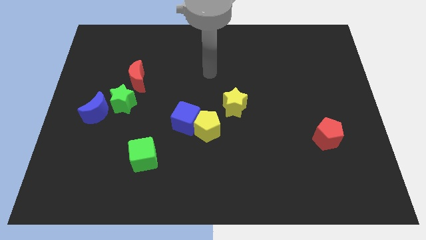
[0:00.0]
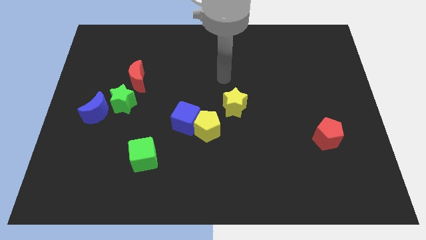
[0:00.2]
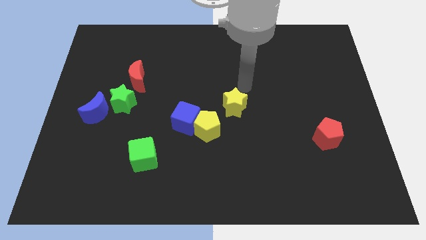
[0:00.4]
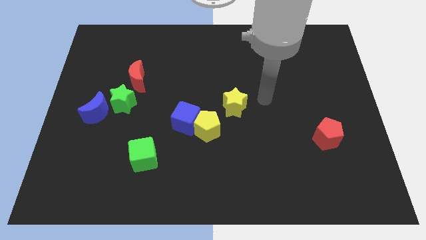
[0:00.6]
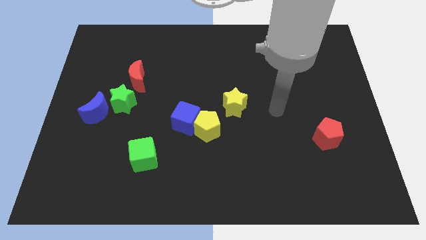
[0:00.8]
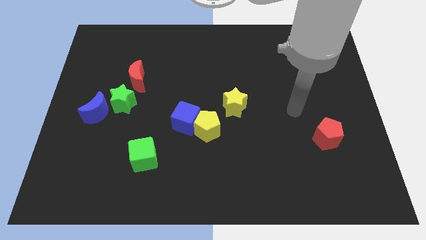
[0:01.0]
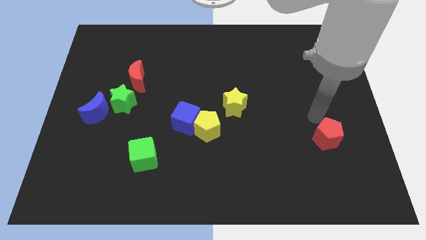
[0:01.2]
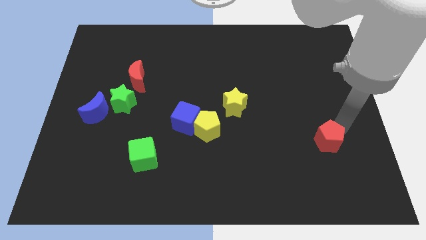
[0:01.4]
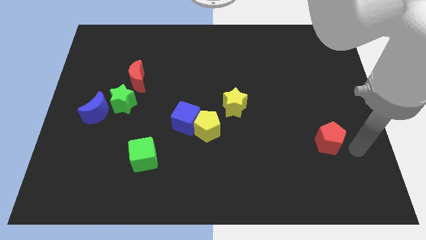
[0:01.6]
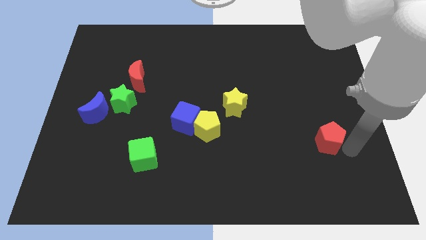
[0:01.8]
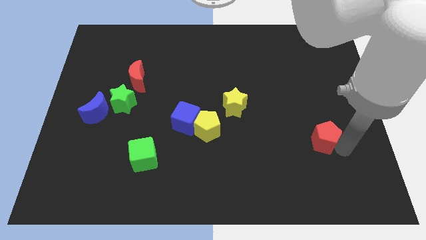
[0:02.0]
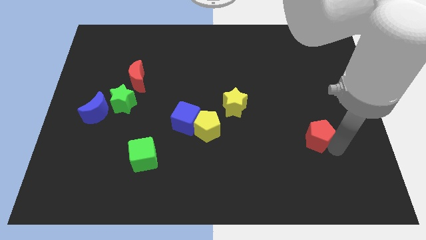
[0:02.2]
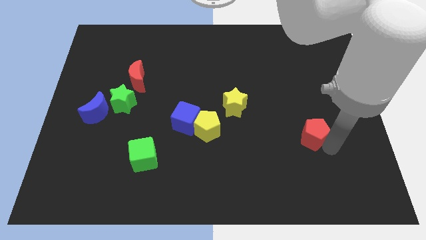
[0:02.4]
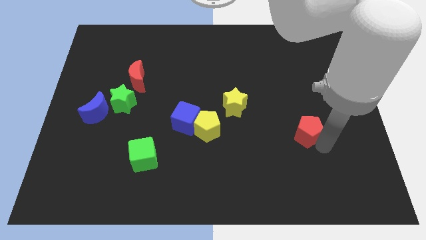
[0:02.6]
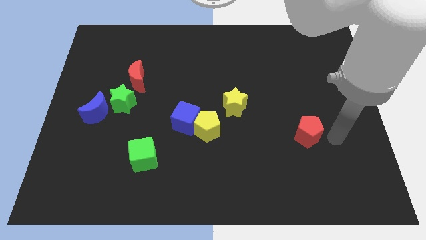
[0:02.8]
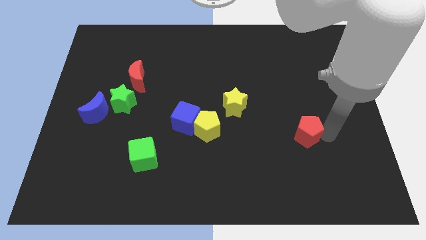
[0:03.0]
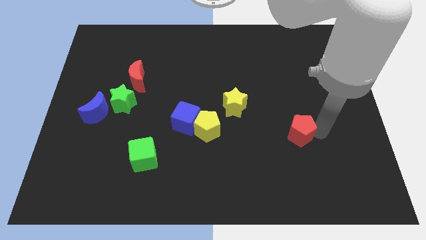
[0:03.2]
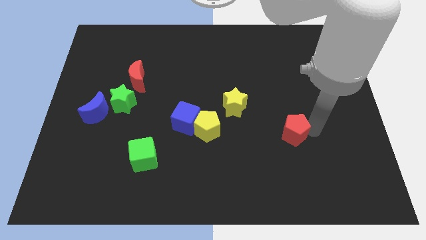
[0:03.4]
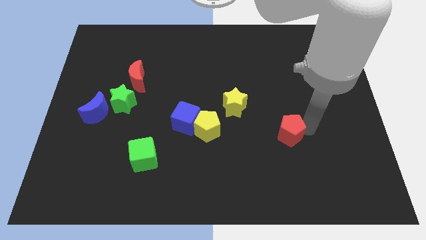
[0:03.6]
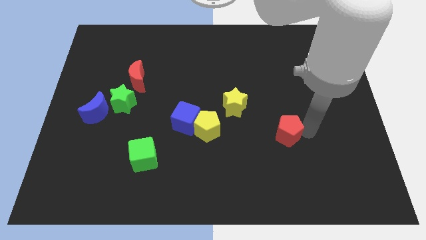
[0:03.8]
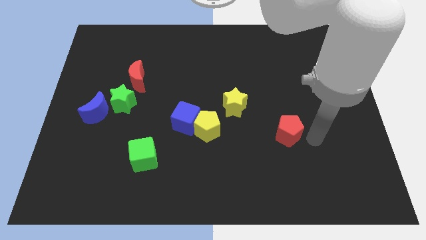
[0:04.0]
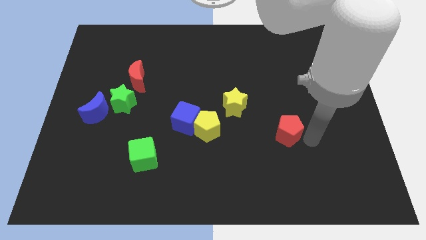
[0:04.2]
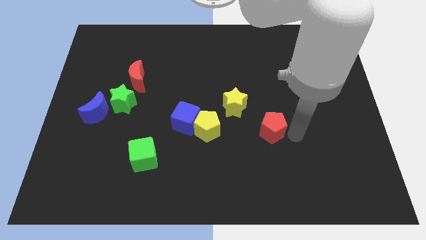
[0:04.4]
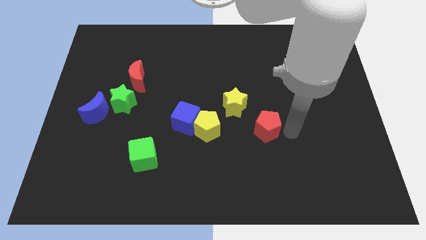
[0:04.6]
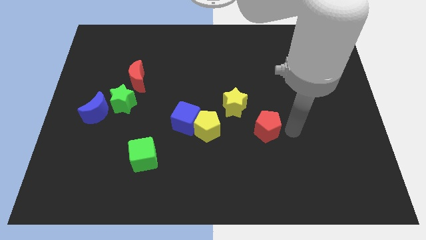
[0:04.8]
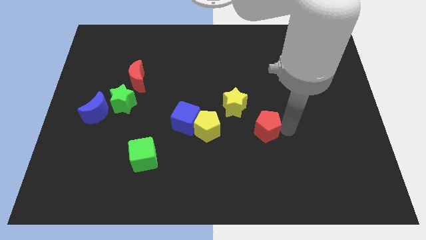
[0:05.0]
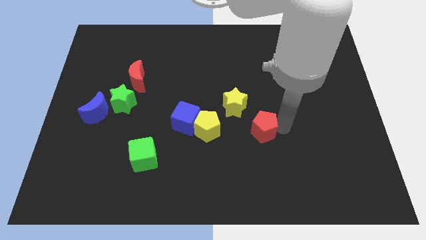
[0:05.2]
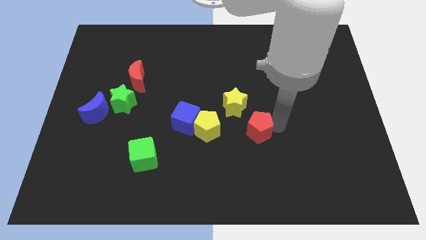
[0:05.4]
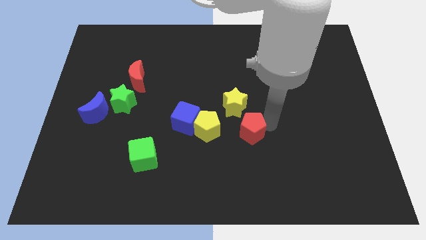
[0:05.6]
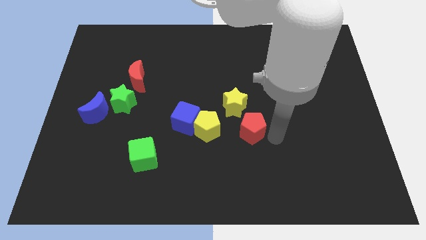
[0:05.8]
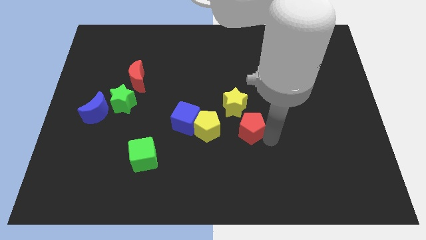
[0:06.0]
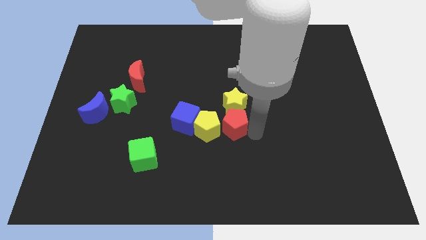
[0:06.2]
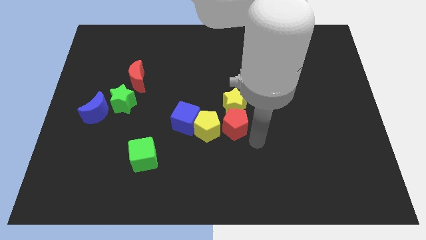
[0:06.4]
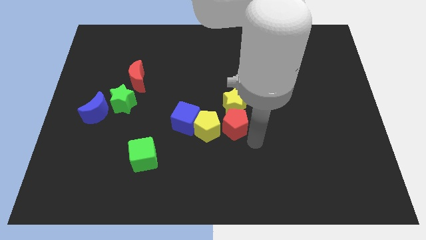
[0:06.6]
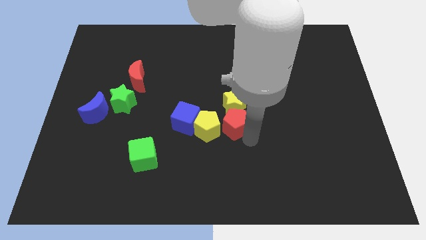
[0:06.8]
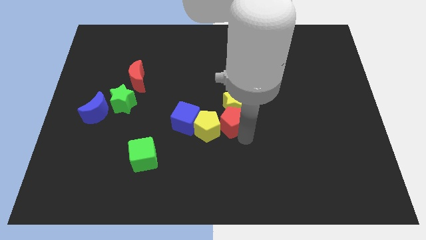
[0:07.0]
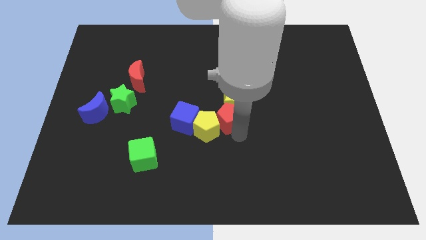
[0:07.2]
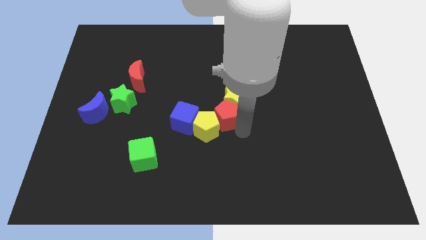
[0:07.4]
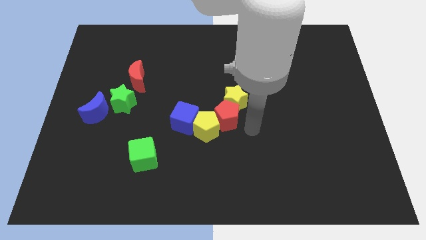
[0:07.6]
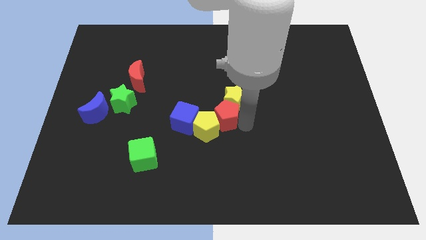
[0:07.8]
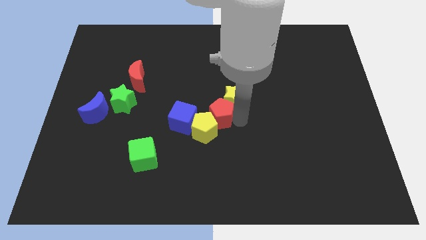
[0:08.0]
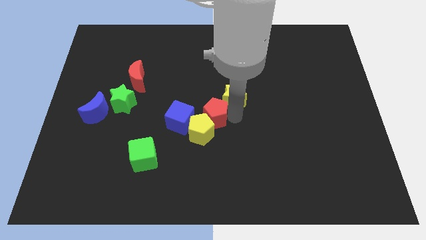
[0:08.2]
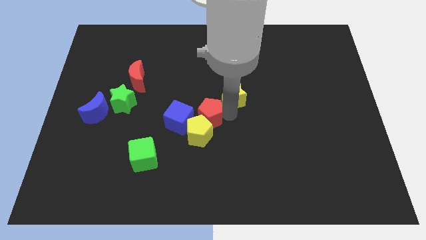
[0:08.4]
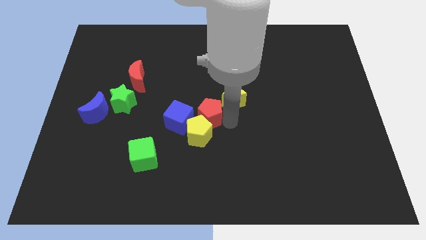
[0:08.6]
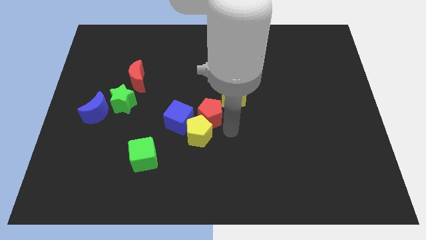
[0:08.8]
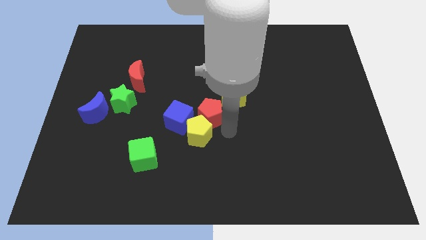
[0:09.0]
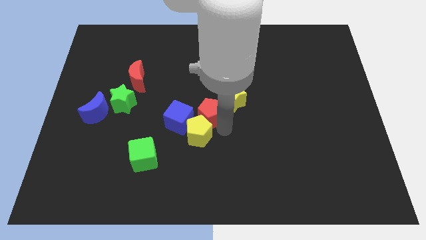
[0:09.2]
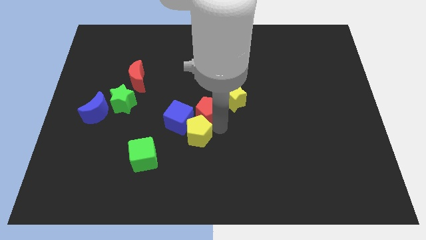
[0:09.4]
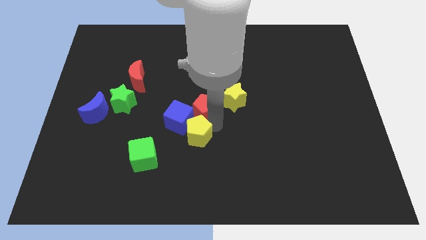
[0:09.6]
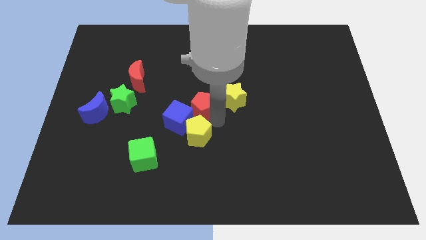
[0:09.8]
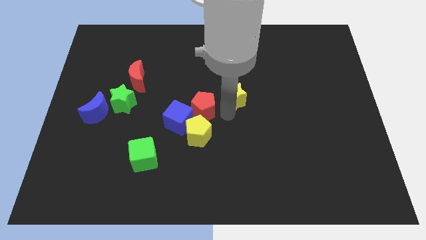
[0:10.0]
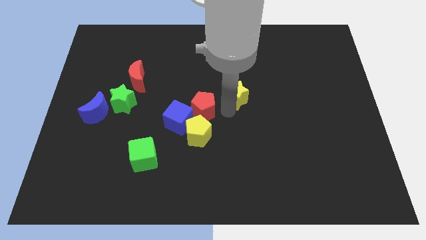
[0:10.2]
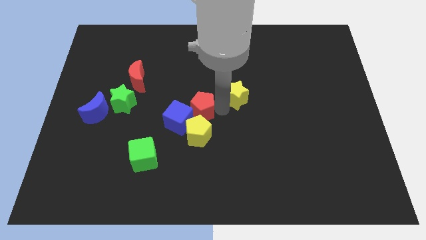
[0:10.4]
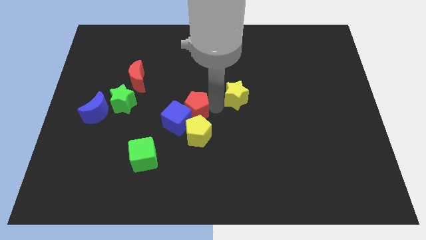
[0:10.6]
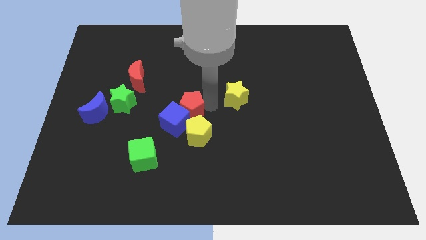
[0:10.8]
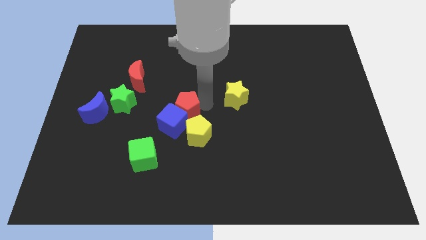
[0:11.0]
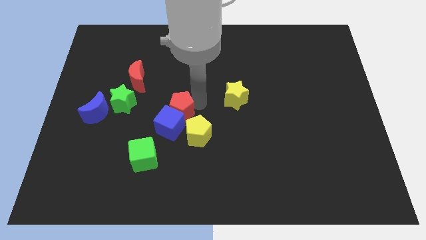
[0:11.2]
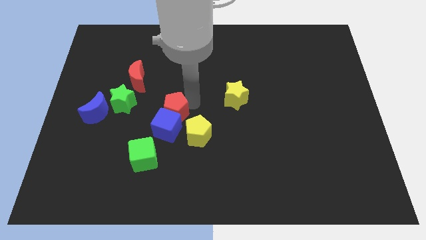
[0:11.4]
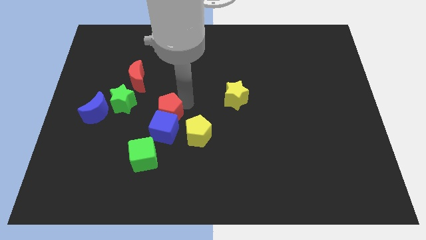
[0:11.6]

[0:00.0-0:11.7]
move the red pentagon to the top of the green cube

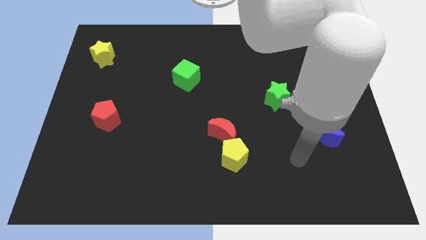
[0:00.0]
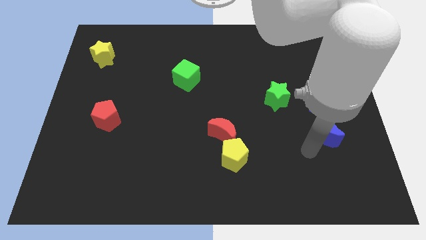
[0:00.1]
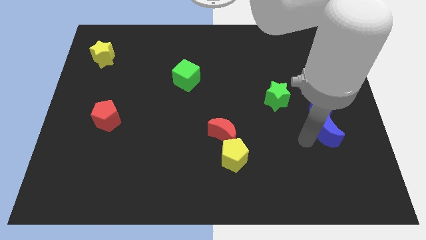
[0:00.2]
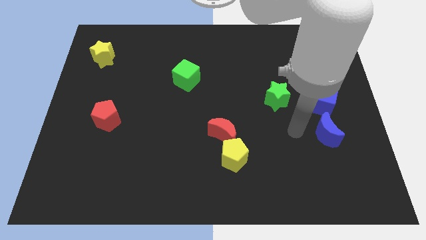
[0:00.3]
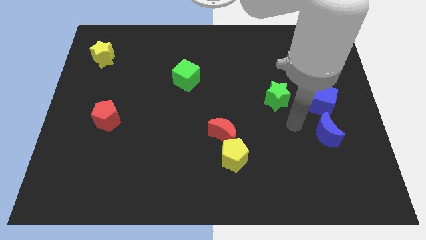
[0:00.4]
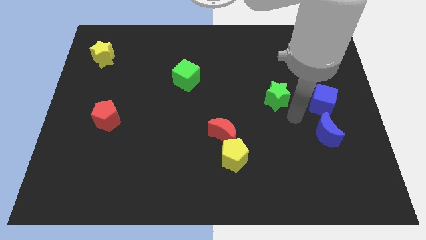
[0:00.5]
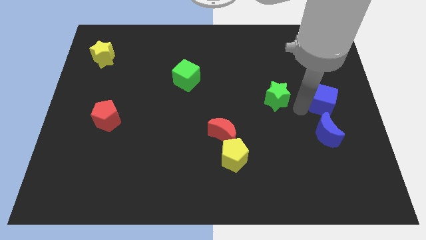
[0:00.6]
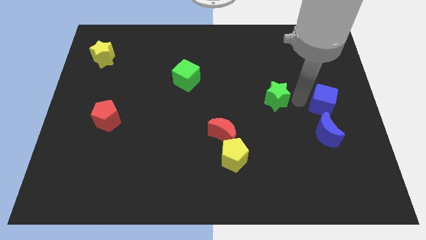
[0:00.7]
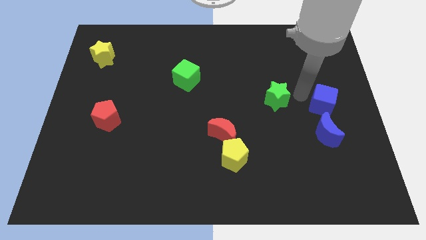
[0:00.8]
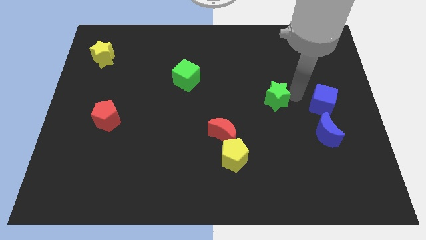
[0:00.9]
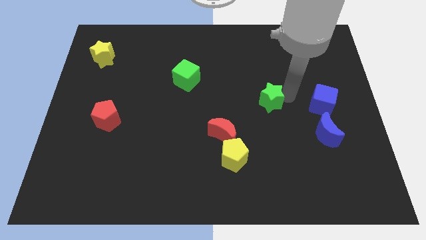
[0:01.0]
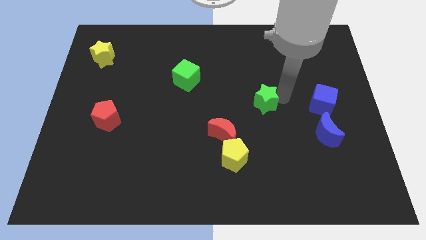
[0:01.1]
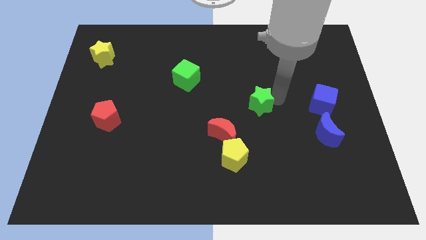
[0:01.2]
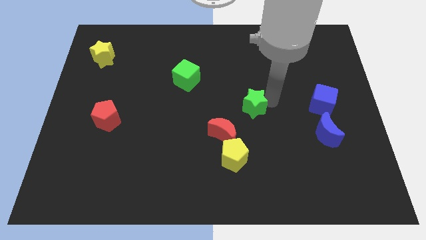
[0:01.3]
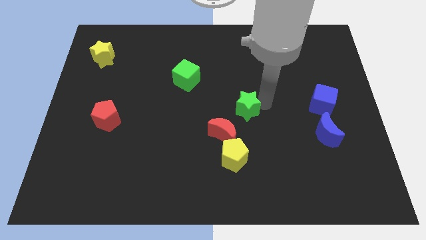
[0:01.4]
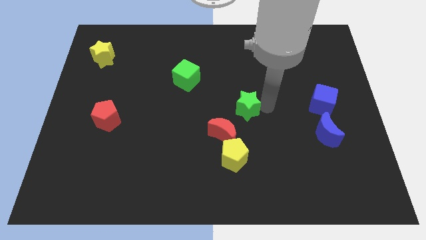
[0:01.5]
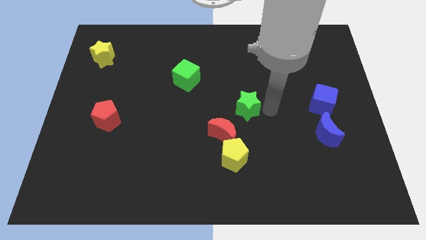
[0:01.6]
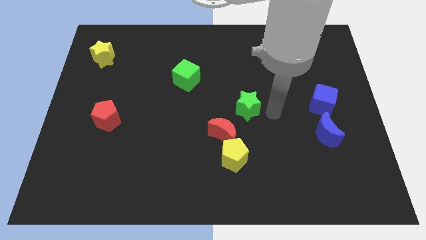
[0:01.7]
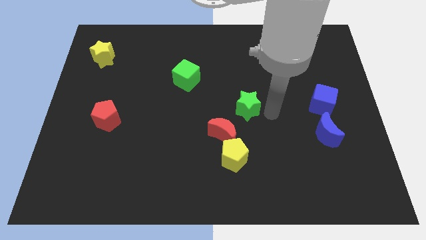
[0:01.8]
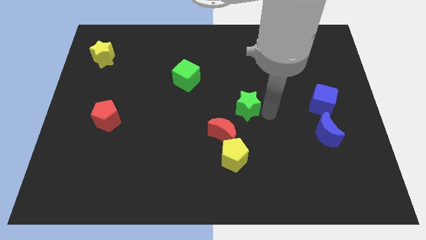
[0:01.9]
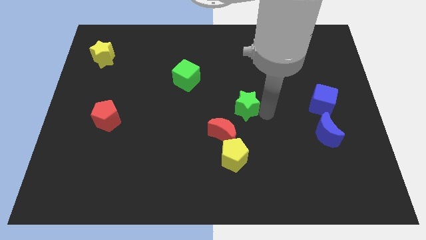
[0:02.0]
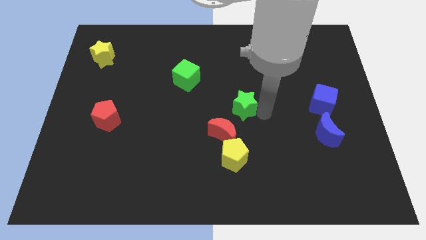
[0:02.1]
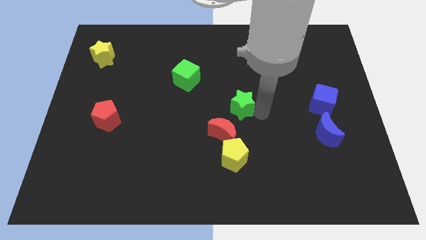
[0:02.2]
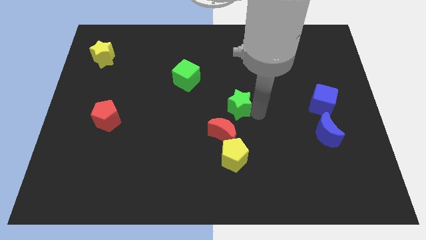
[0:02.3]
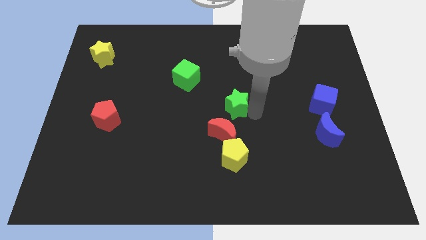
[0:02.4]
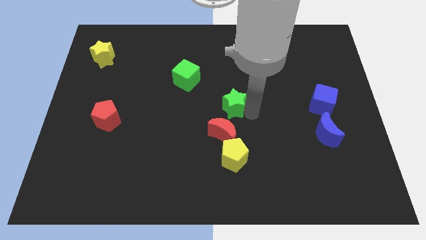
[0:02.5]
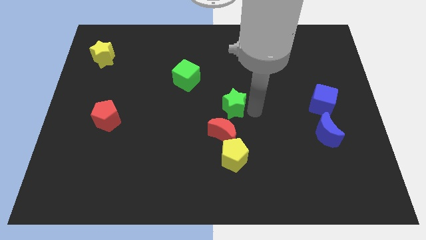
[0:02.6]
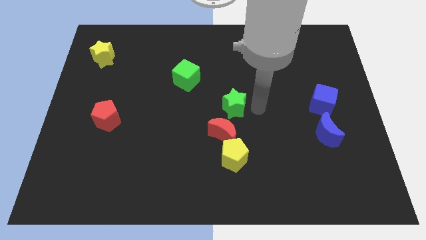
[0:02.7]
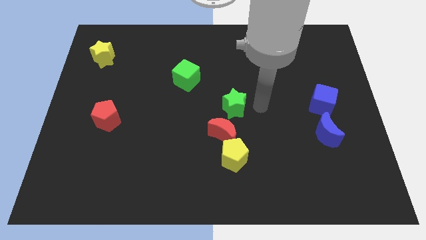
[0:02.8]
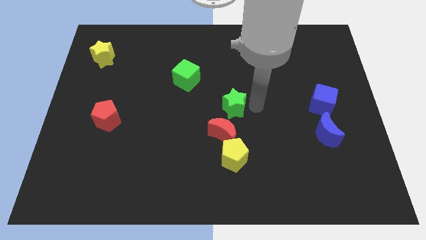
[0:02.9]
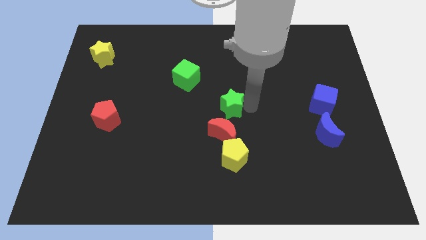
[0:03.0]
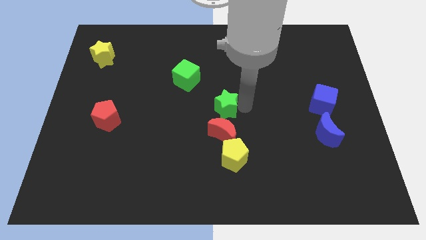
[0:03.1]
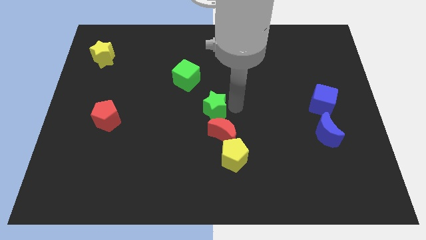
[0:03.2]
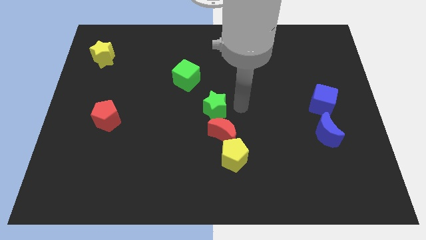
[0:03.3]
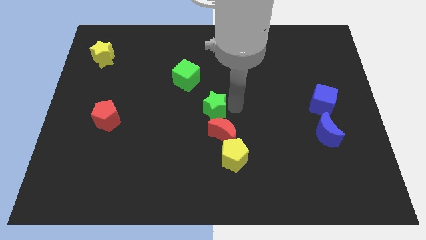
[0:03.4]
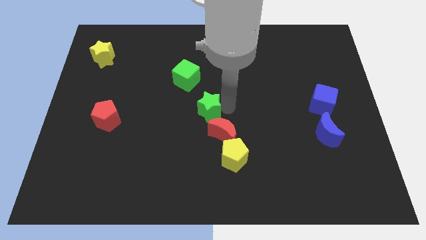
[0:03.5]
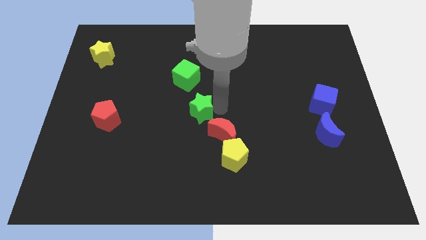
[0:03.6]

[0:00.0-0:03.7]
slide the green star to the bottom side of the green cube
